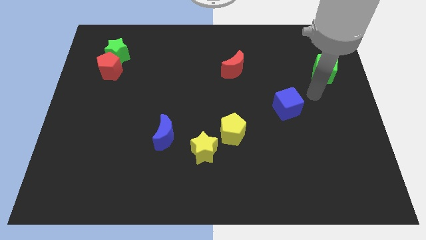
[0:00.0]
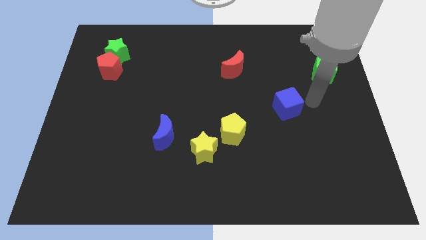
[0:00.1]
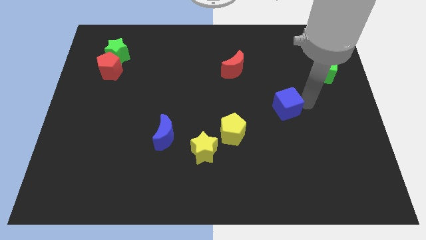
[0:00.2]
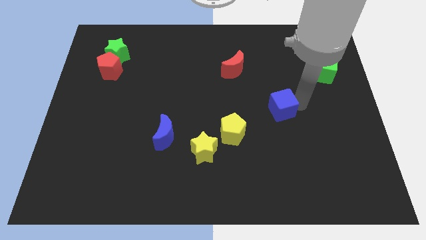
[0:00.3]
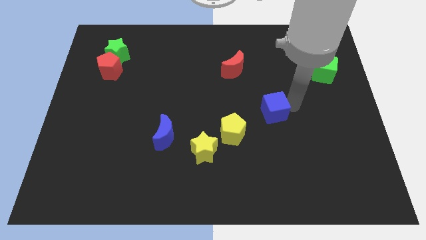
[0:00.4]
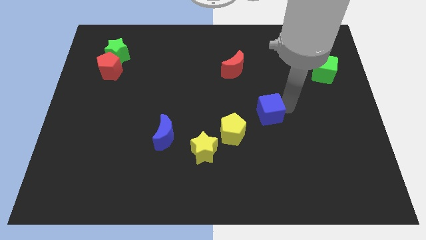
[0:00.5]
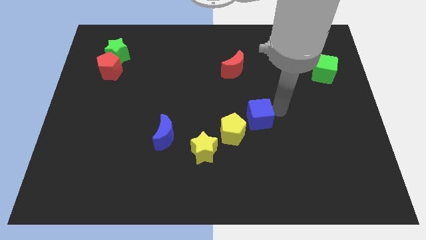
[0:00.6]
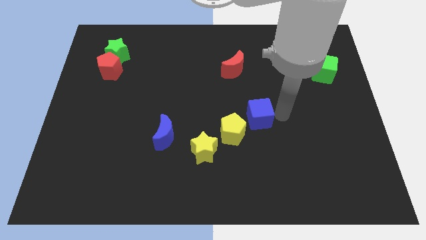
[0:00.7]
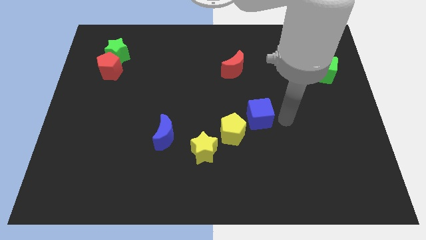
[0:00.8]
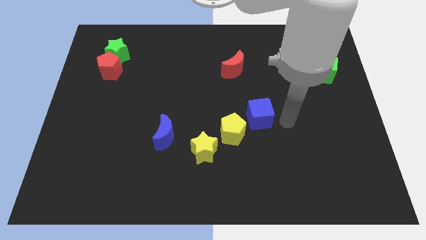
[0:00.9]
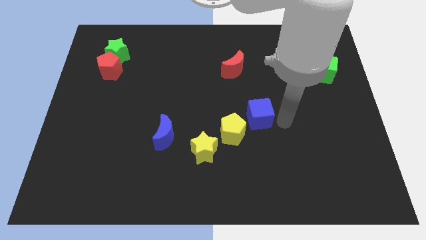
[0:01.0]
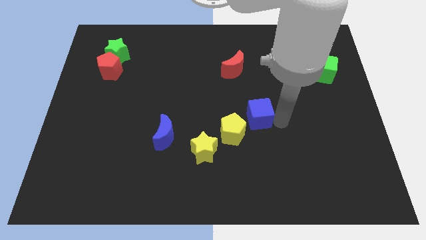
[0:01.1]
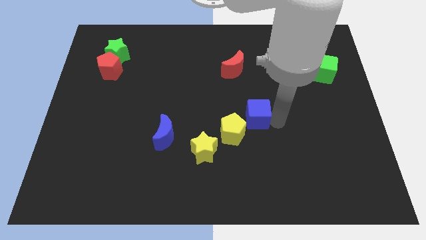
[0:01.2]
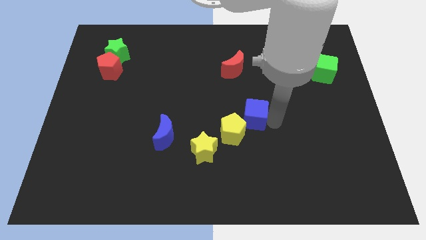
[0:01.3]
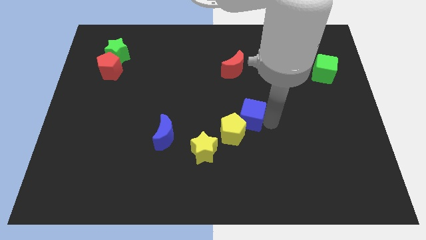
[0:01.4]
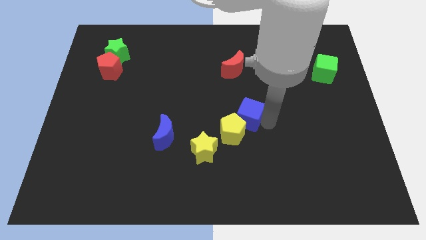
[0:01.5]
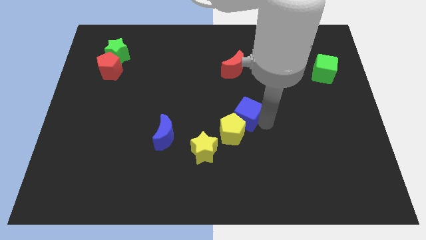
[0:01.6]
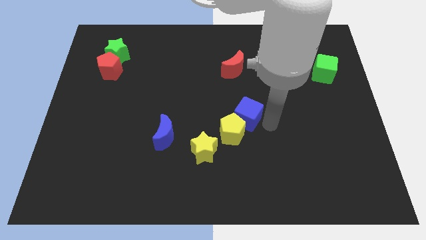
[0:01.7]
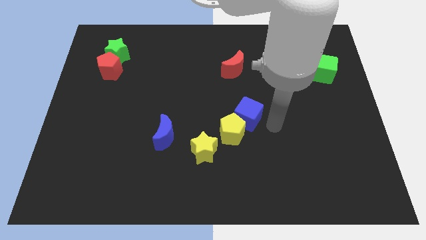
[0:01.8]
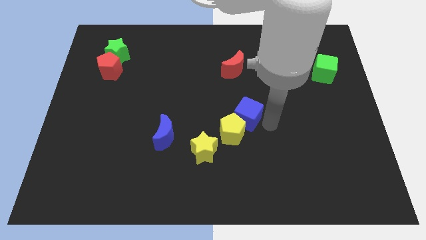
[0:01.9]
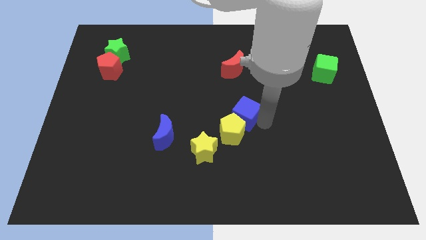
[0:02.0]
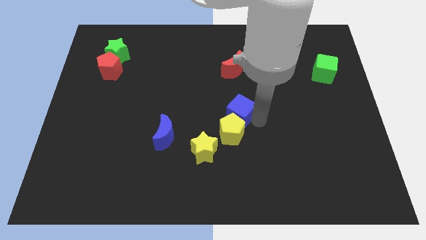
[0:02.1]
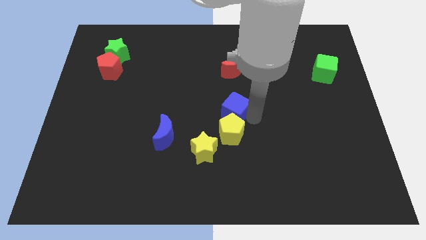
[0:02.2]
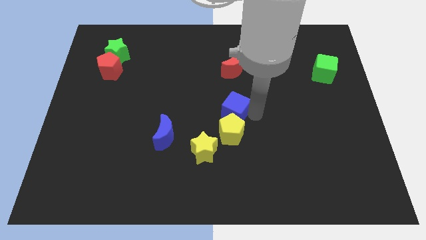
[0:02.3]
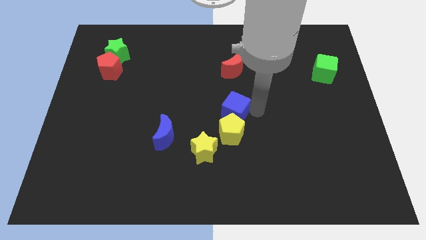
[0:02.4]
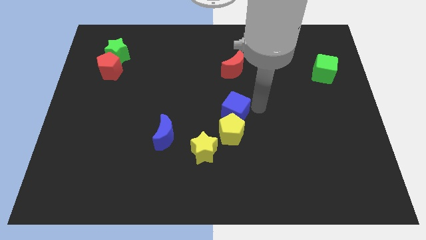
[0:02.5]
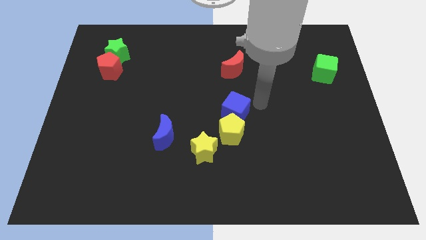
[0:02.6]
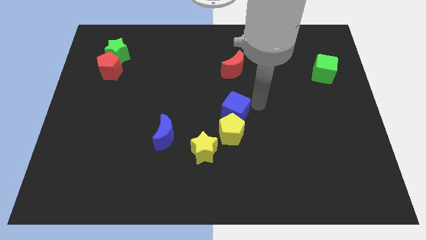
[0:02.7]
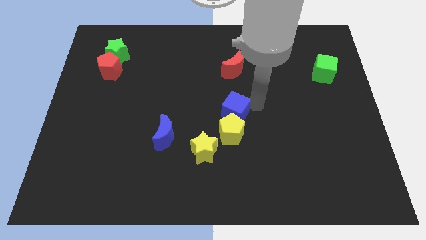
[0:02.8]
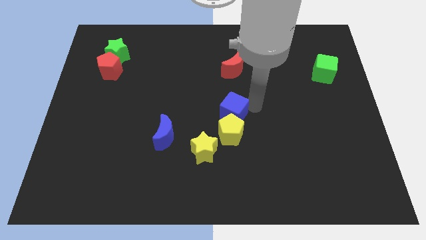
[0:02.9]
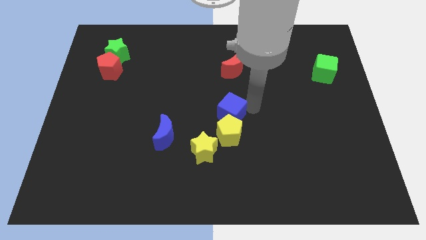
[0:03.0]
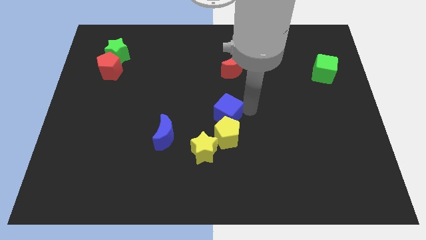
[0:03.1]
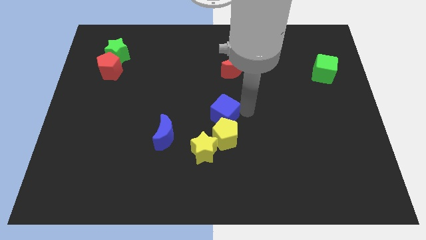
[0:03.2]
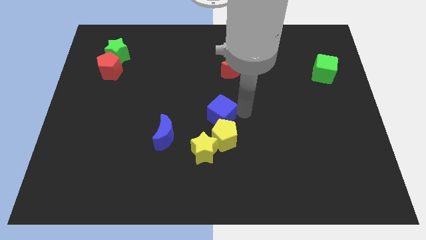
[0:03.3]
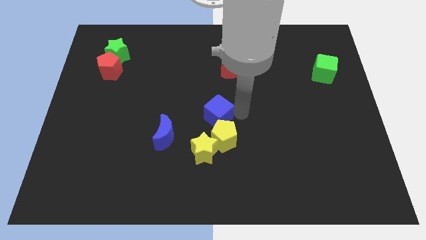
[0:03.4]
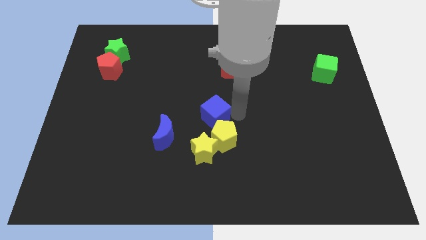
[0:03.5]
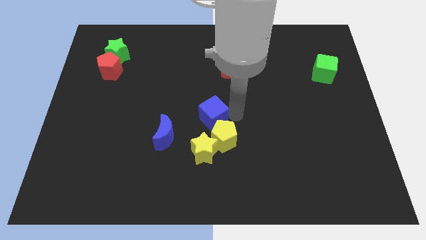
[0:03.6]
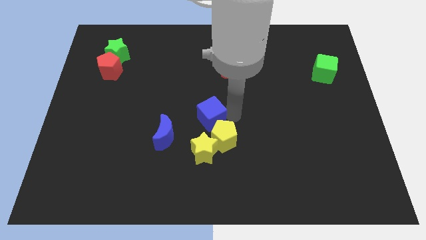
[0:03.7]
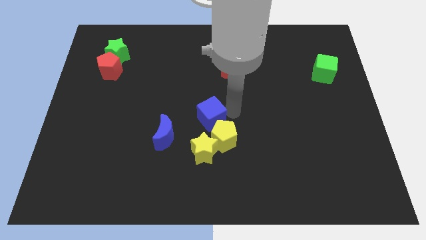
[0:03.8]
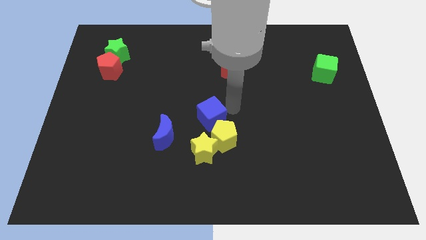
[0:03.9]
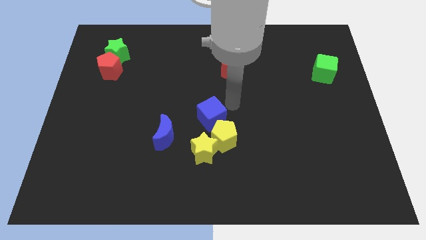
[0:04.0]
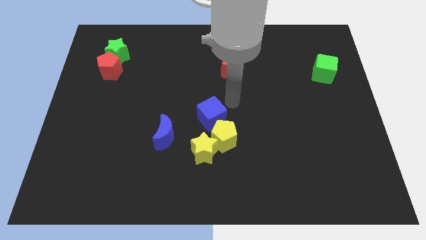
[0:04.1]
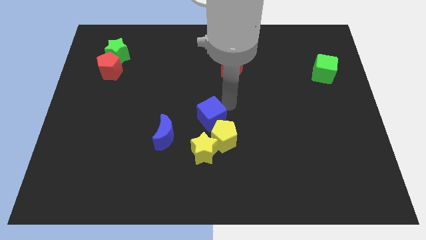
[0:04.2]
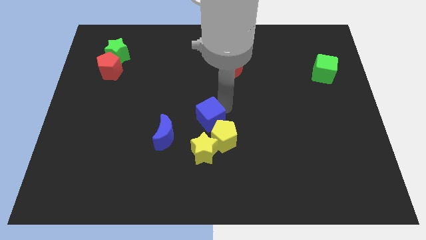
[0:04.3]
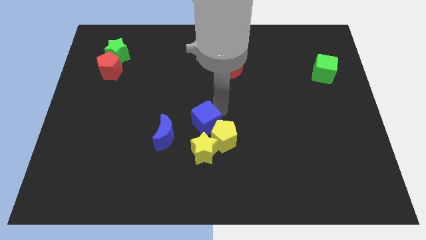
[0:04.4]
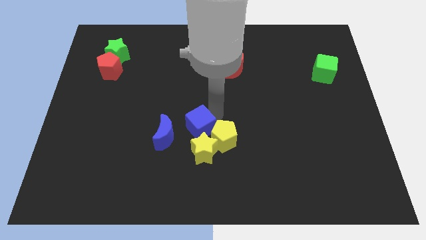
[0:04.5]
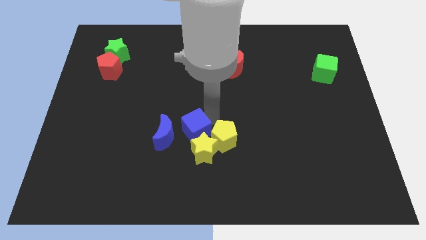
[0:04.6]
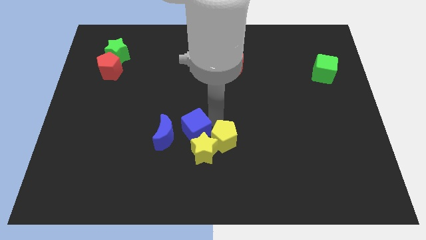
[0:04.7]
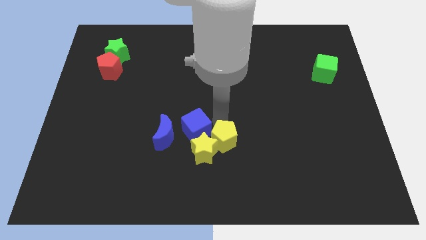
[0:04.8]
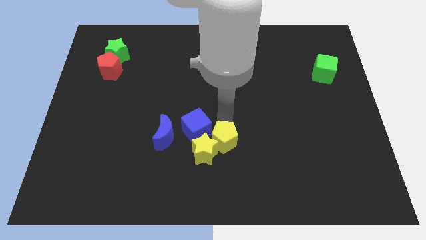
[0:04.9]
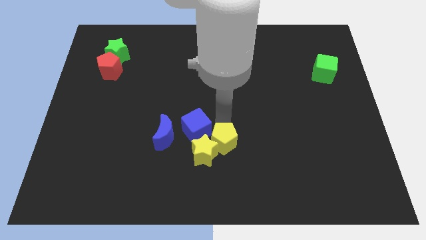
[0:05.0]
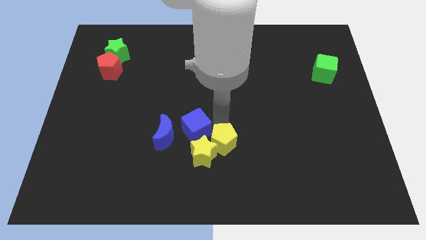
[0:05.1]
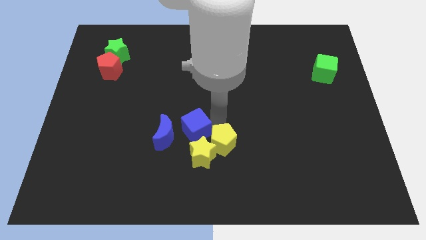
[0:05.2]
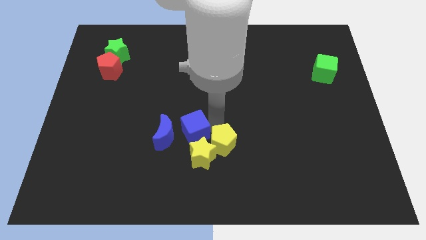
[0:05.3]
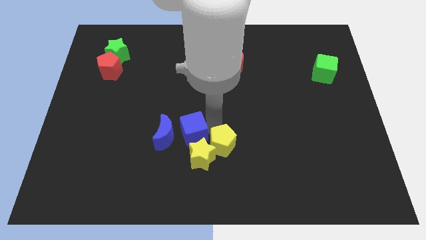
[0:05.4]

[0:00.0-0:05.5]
push the blue cube to the blue moon

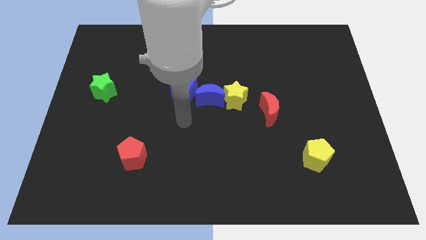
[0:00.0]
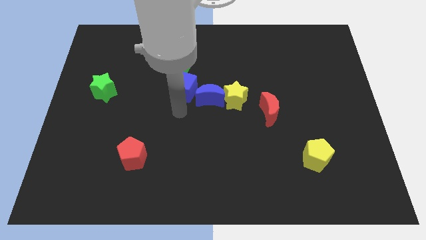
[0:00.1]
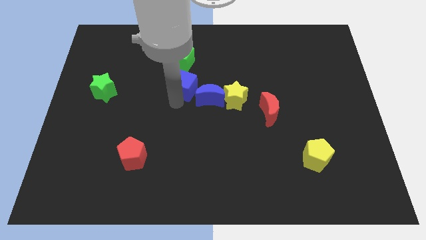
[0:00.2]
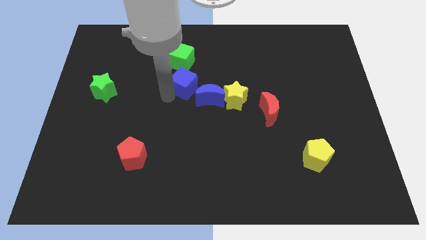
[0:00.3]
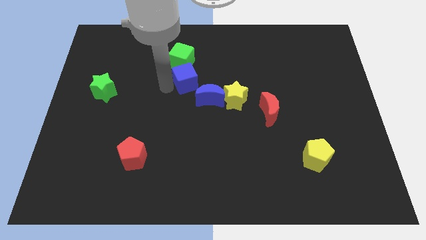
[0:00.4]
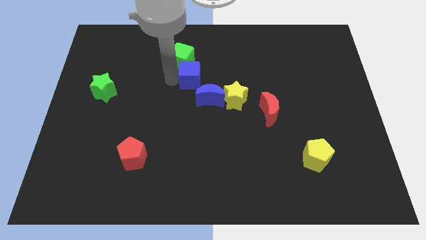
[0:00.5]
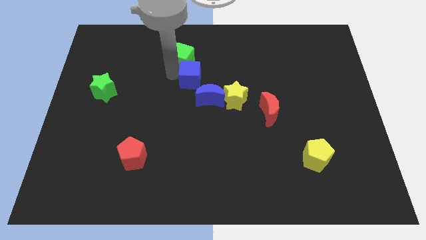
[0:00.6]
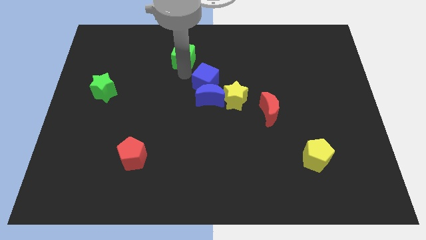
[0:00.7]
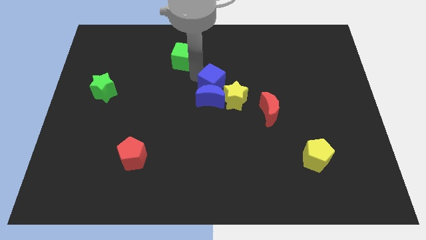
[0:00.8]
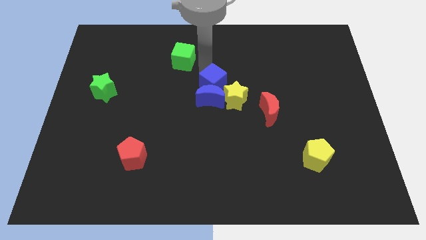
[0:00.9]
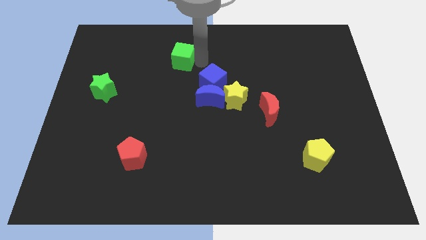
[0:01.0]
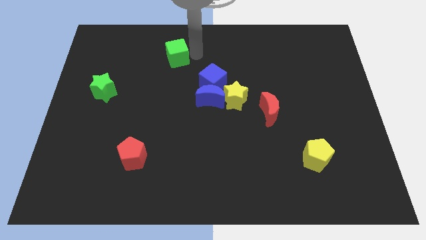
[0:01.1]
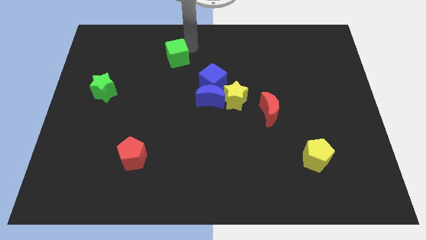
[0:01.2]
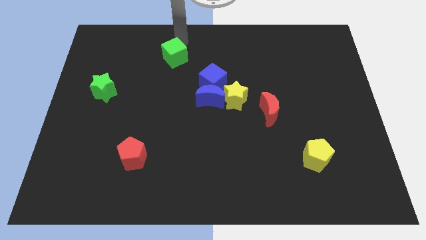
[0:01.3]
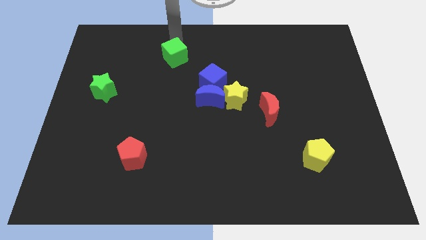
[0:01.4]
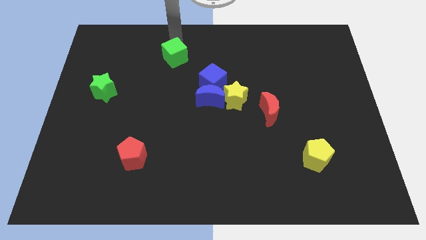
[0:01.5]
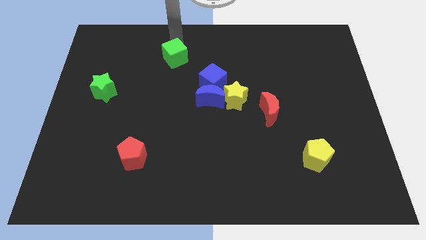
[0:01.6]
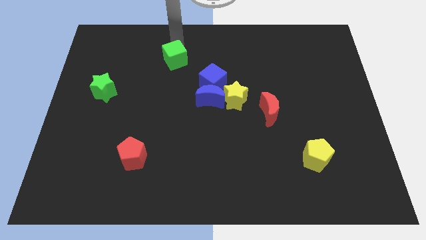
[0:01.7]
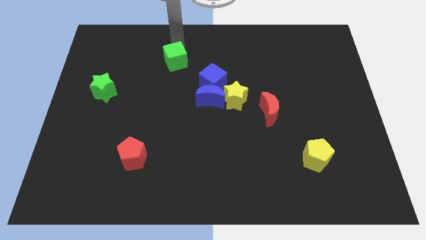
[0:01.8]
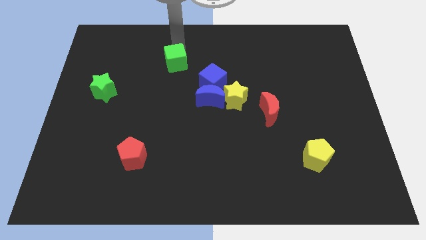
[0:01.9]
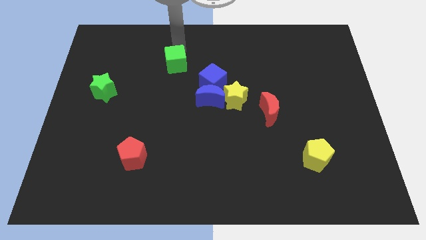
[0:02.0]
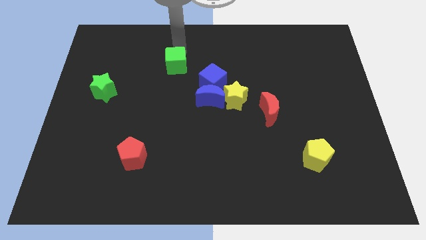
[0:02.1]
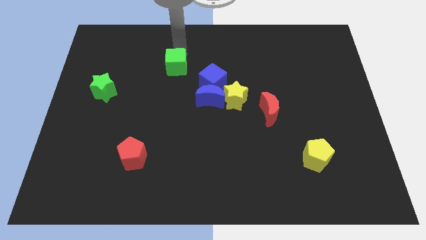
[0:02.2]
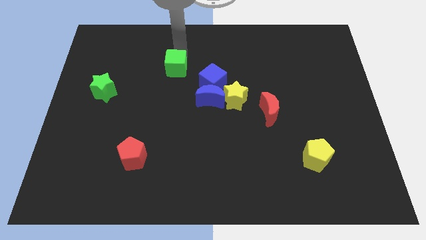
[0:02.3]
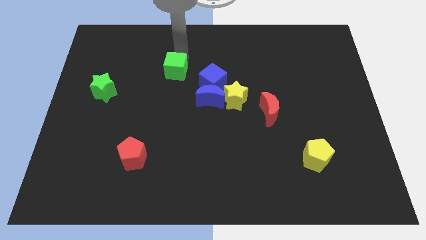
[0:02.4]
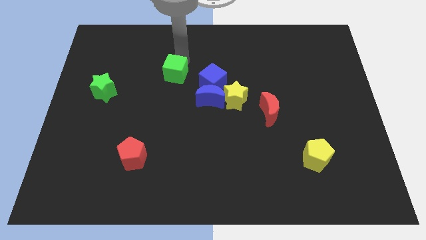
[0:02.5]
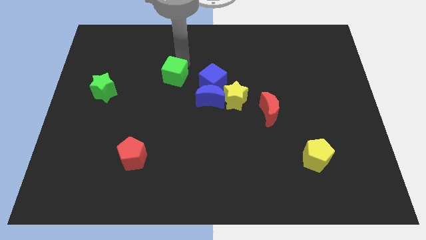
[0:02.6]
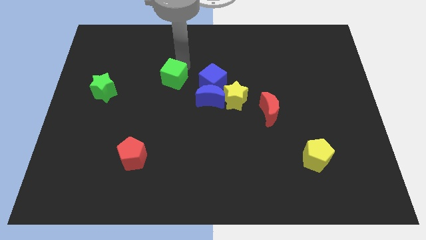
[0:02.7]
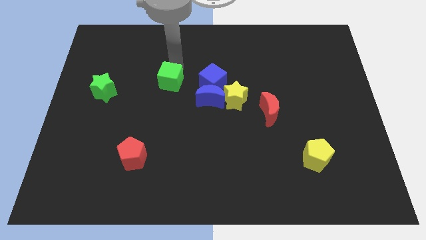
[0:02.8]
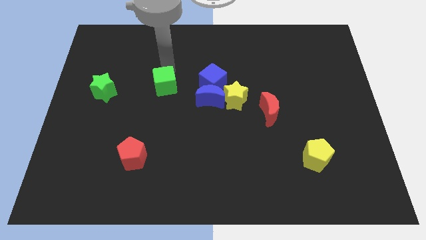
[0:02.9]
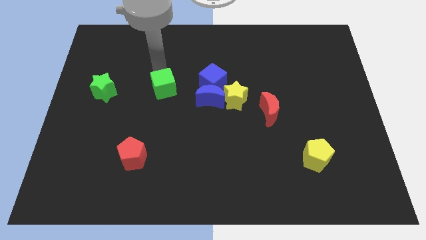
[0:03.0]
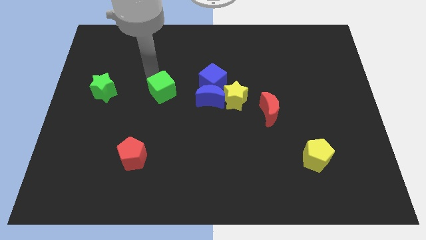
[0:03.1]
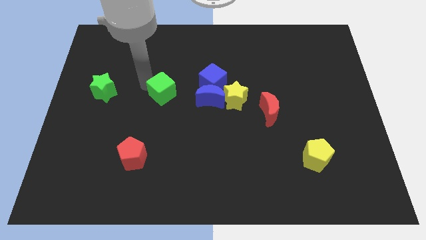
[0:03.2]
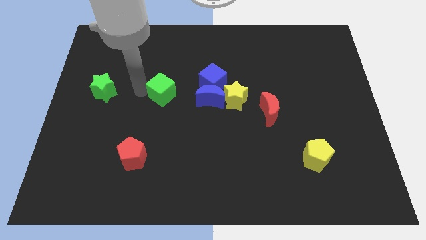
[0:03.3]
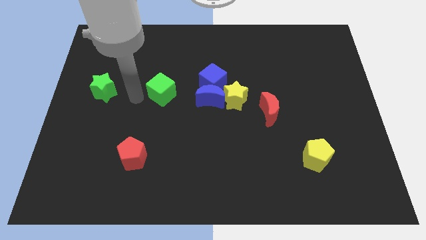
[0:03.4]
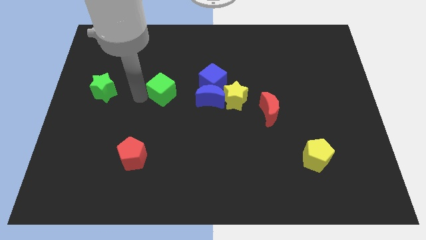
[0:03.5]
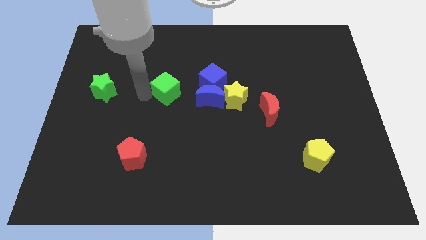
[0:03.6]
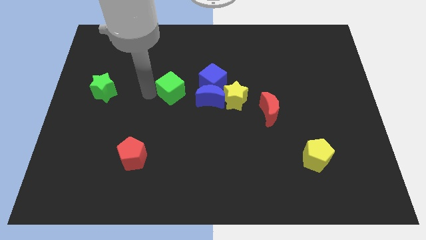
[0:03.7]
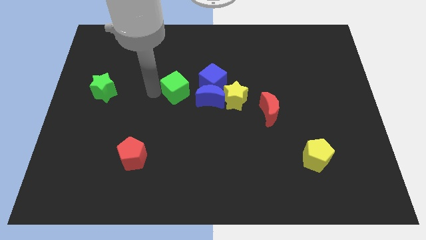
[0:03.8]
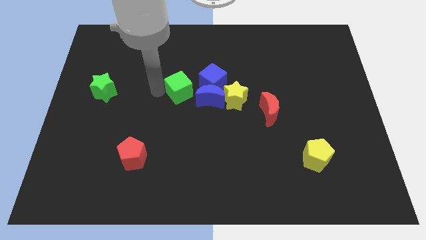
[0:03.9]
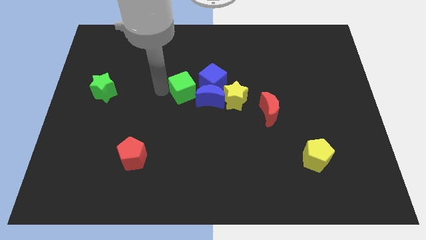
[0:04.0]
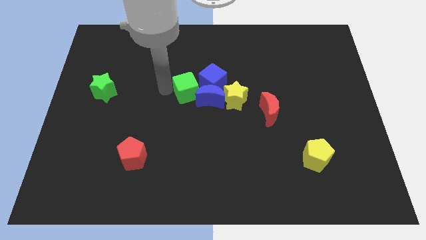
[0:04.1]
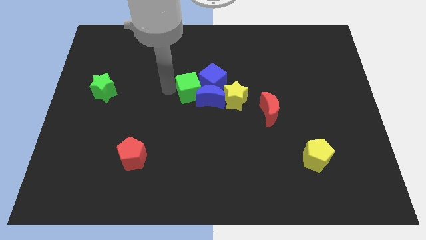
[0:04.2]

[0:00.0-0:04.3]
put the green cube next to the blue cube
